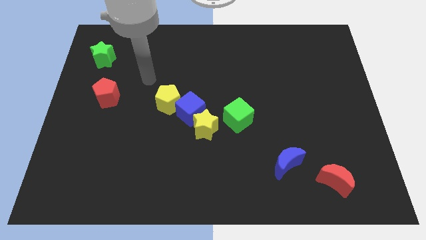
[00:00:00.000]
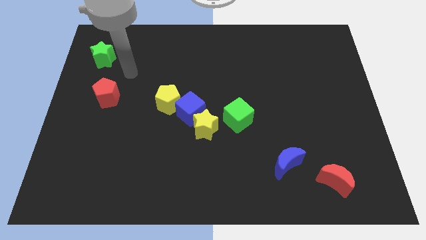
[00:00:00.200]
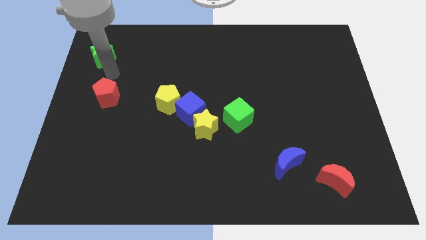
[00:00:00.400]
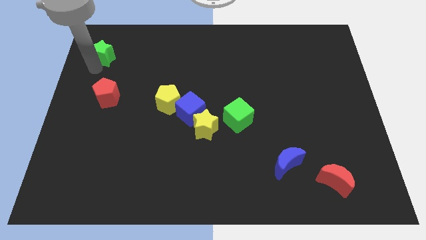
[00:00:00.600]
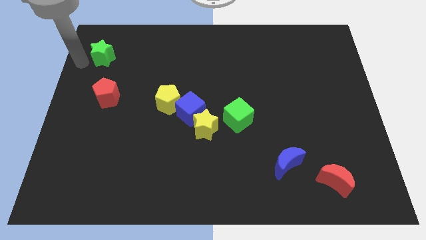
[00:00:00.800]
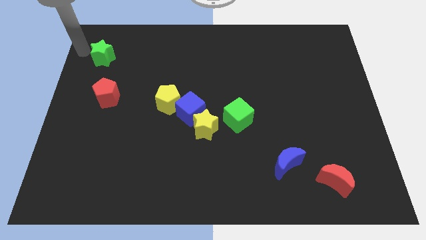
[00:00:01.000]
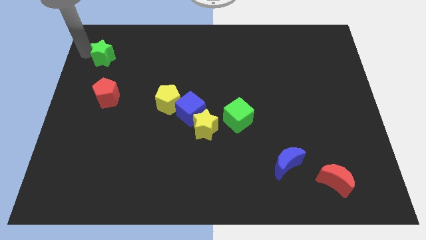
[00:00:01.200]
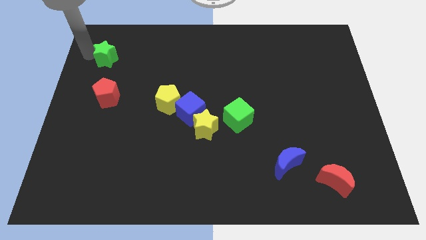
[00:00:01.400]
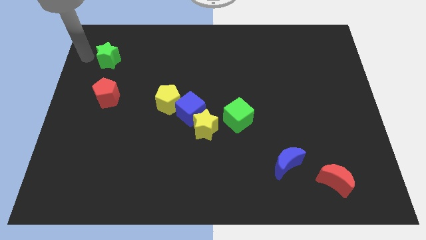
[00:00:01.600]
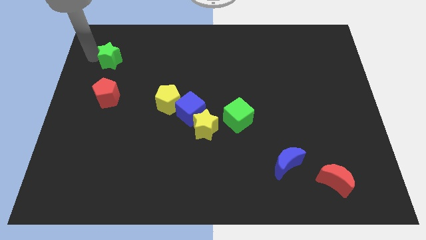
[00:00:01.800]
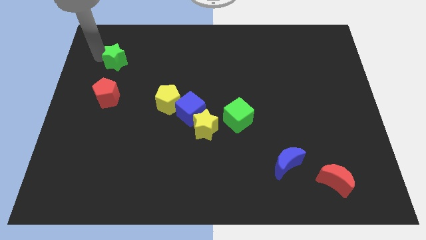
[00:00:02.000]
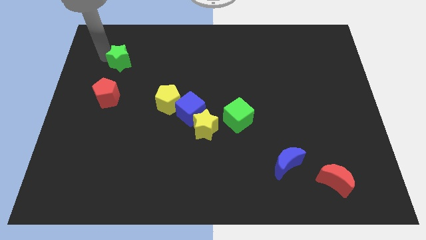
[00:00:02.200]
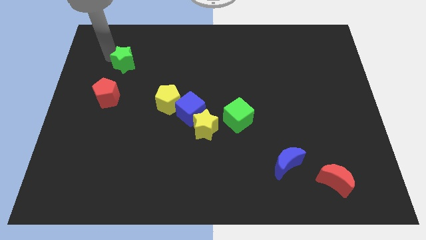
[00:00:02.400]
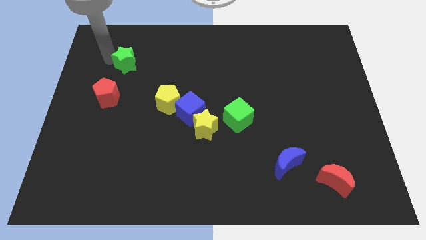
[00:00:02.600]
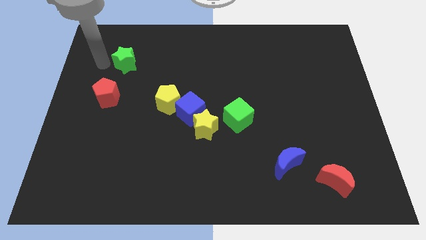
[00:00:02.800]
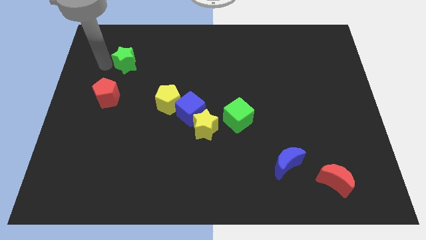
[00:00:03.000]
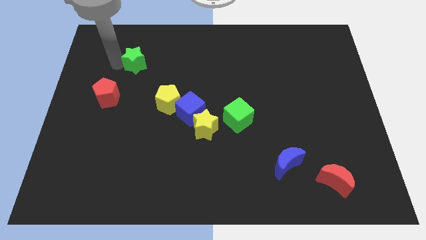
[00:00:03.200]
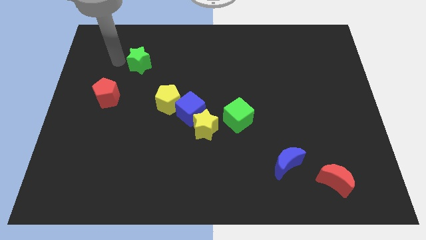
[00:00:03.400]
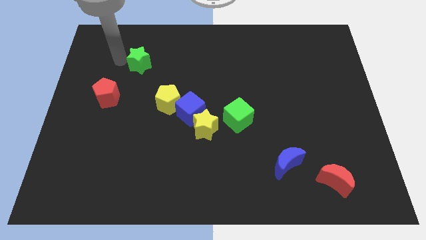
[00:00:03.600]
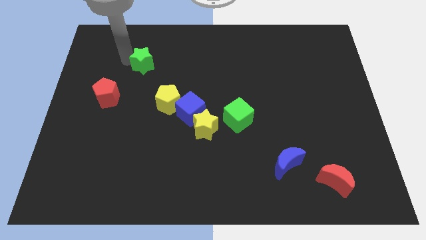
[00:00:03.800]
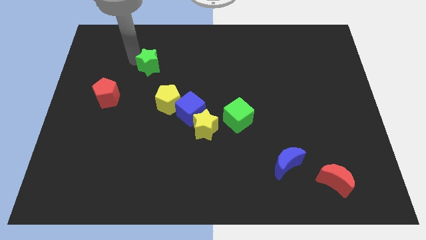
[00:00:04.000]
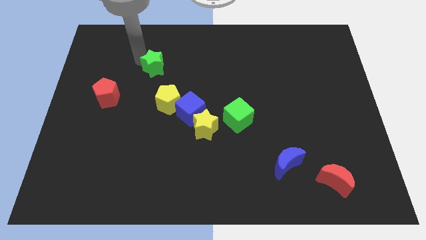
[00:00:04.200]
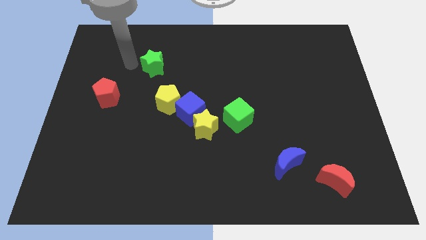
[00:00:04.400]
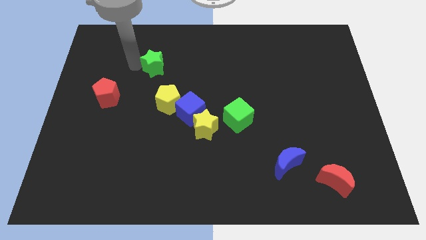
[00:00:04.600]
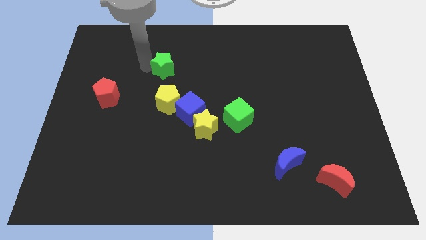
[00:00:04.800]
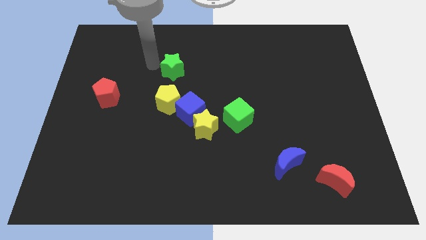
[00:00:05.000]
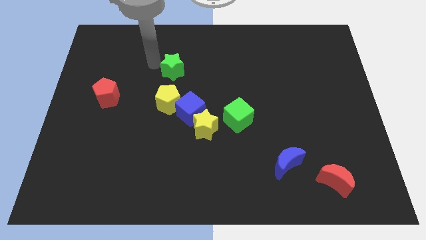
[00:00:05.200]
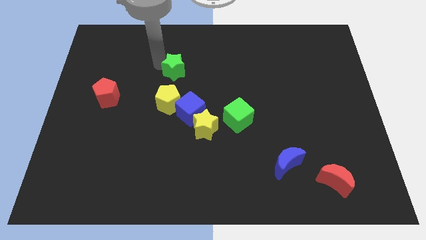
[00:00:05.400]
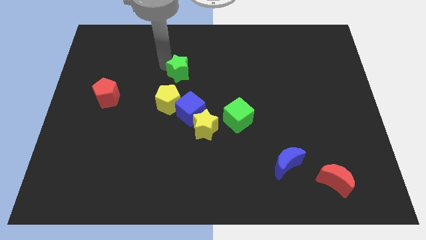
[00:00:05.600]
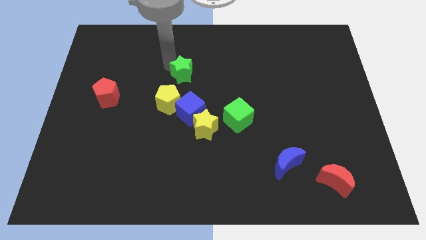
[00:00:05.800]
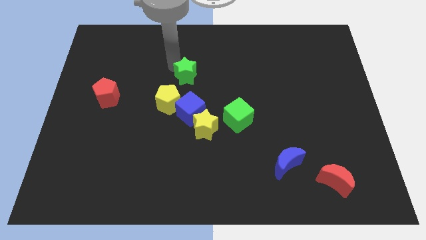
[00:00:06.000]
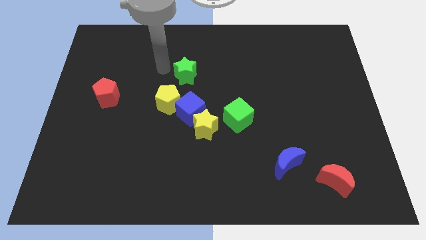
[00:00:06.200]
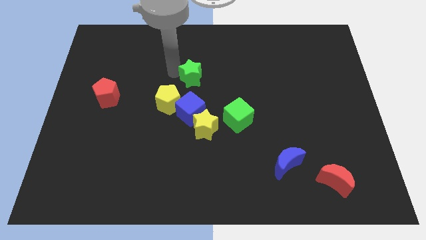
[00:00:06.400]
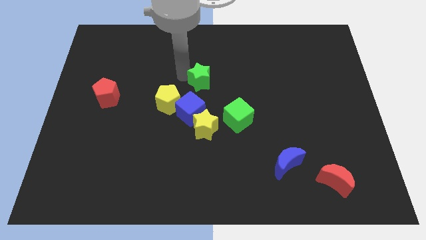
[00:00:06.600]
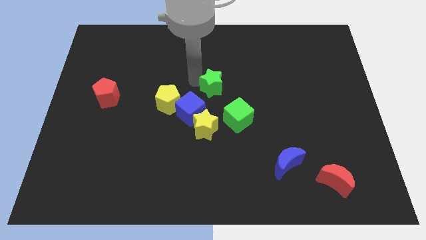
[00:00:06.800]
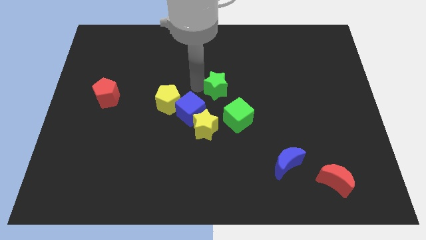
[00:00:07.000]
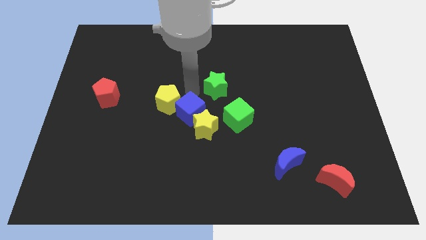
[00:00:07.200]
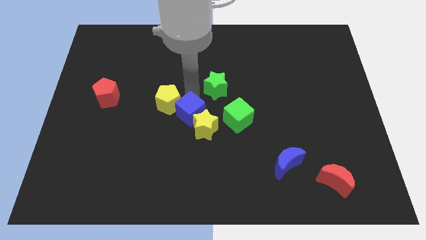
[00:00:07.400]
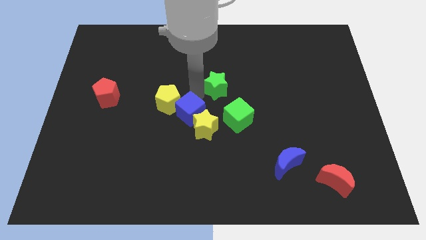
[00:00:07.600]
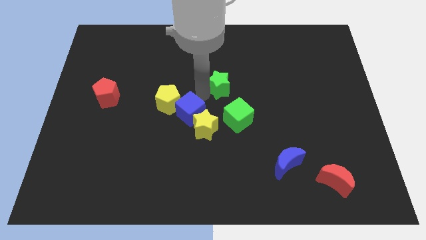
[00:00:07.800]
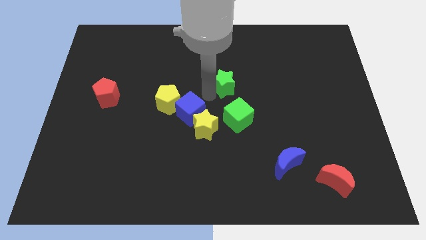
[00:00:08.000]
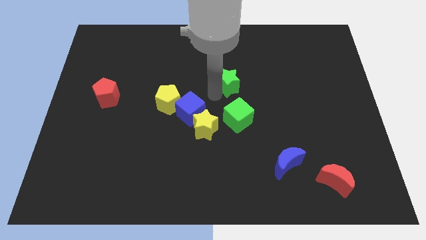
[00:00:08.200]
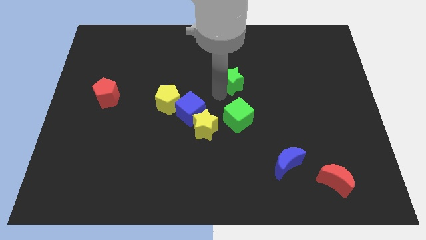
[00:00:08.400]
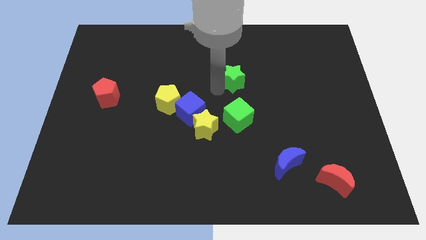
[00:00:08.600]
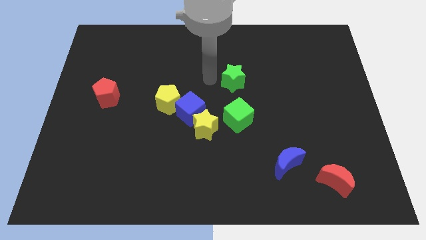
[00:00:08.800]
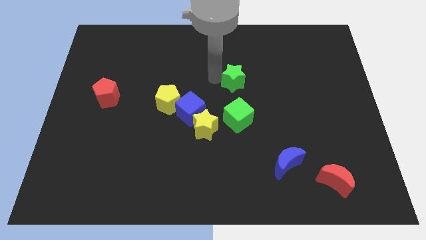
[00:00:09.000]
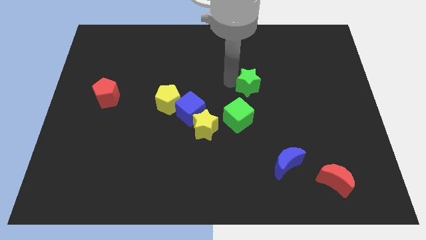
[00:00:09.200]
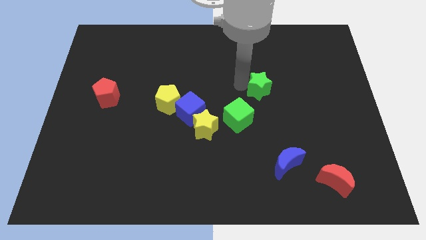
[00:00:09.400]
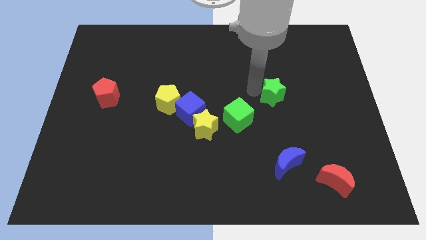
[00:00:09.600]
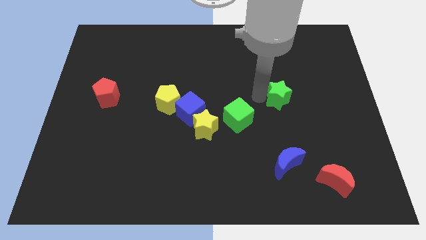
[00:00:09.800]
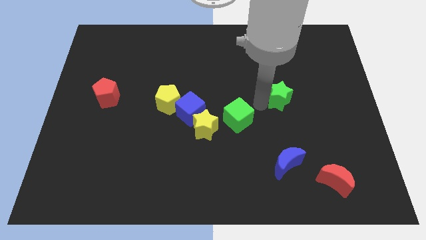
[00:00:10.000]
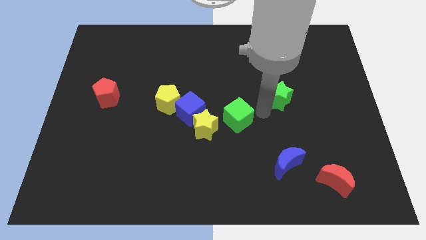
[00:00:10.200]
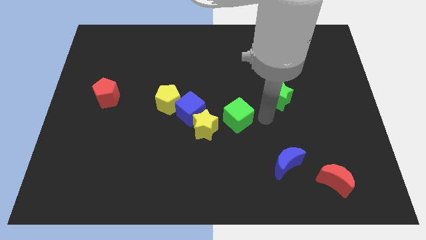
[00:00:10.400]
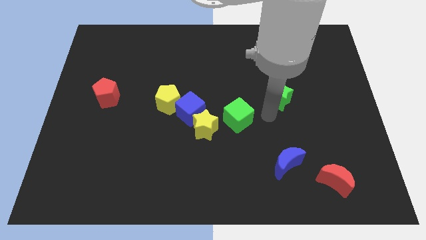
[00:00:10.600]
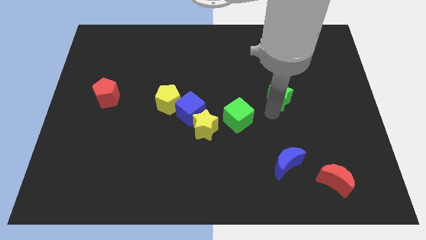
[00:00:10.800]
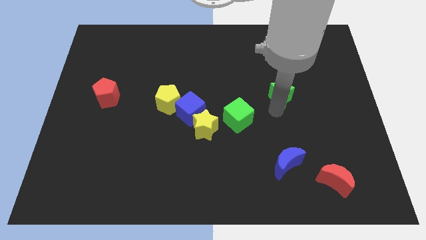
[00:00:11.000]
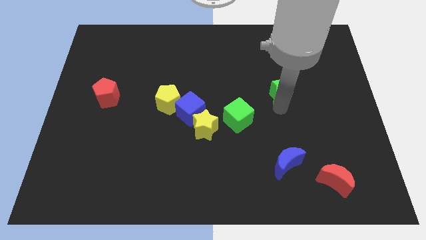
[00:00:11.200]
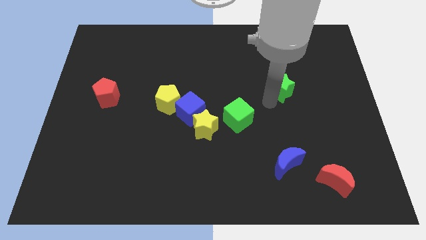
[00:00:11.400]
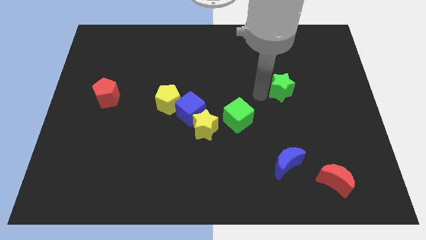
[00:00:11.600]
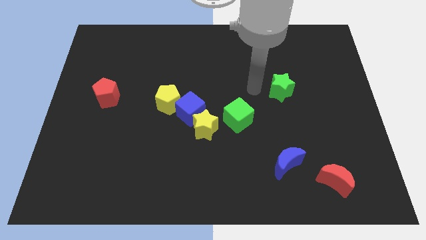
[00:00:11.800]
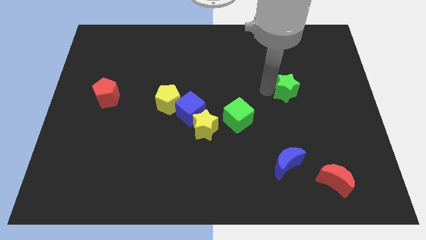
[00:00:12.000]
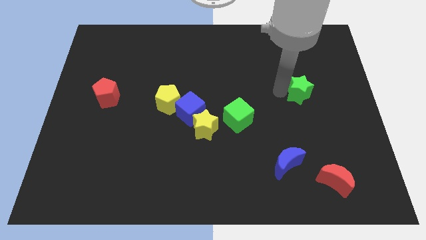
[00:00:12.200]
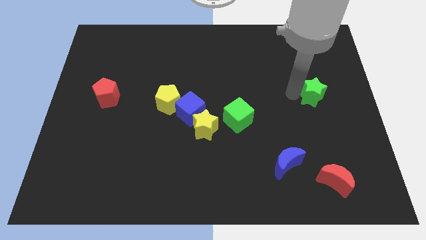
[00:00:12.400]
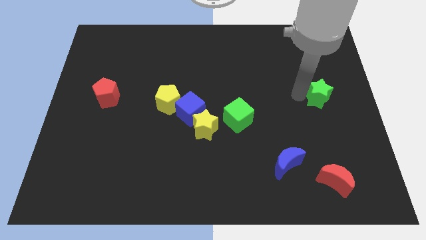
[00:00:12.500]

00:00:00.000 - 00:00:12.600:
slide the green star to the right side of the board

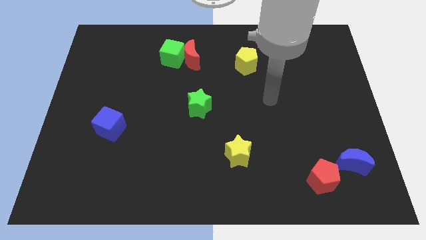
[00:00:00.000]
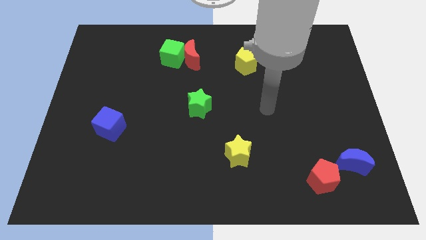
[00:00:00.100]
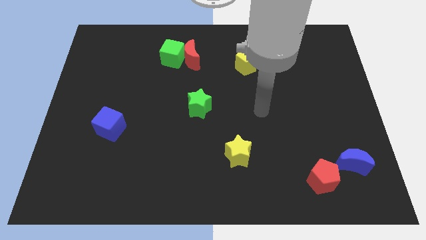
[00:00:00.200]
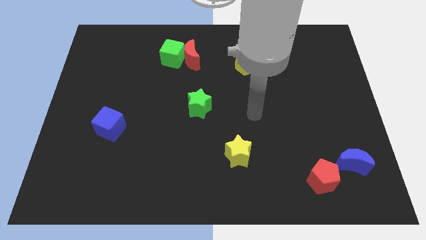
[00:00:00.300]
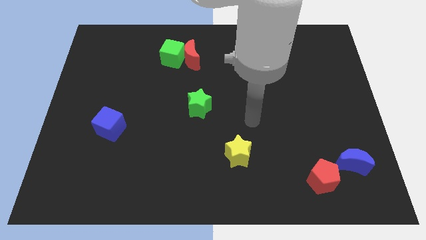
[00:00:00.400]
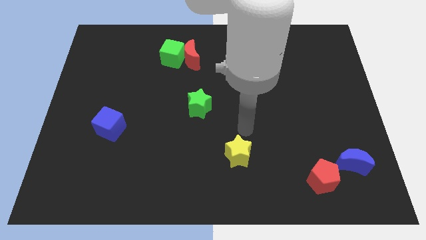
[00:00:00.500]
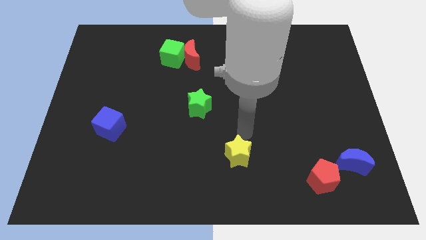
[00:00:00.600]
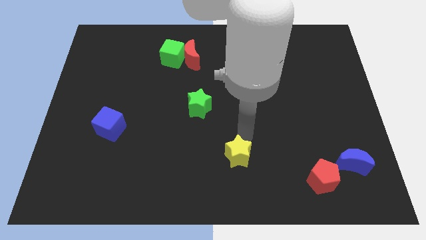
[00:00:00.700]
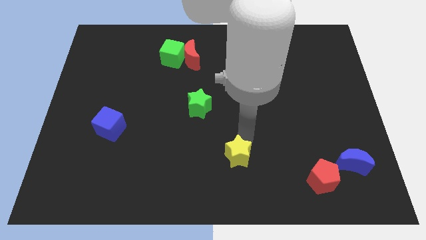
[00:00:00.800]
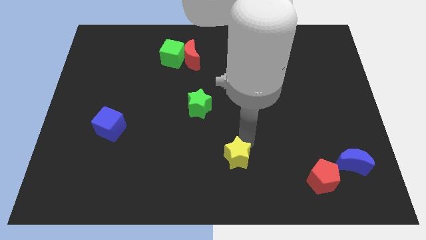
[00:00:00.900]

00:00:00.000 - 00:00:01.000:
move the yellow star to the bottom side
